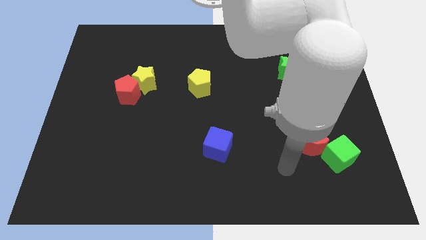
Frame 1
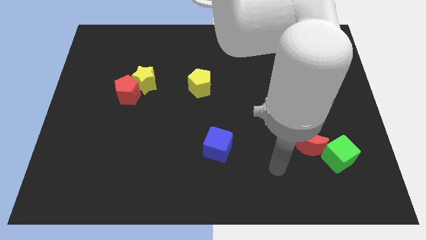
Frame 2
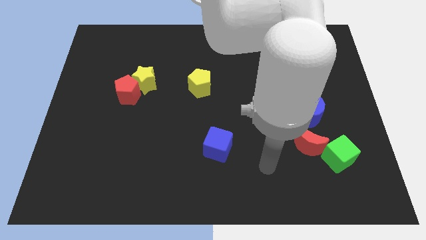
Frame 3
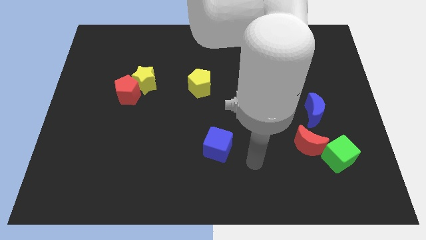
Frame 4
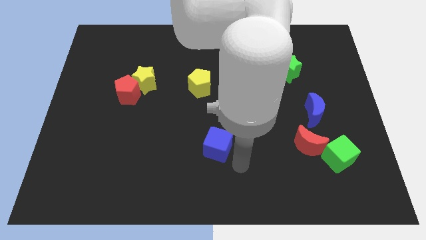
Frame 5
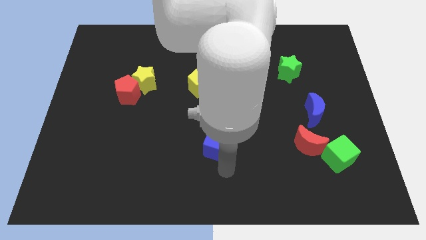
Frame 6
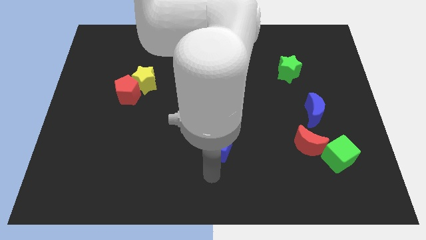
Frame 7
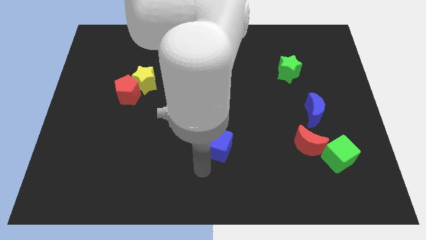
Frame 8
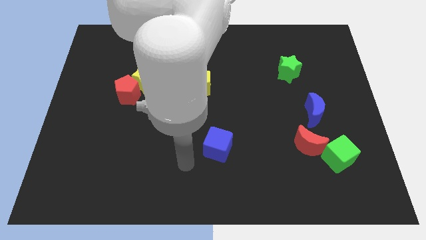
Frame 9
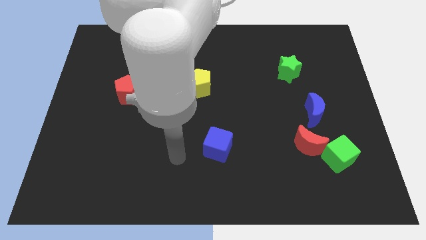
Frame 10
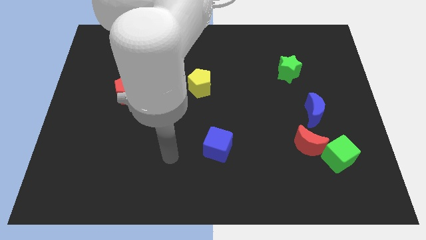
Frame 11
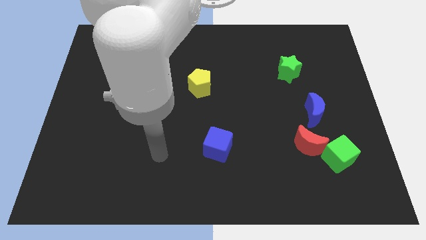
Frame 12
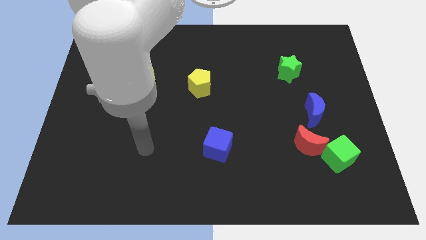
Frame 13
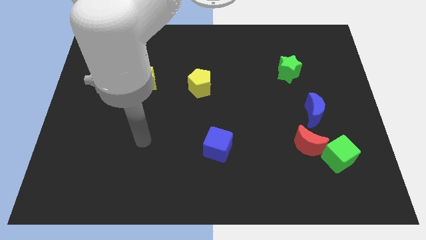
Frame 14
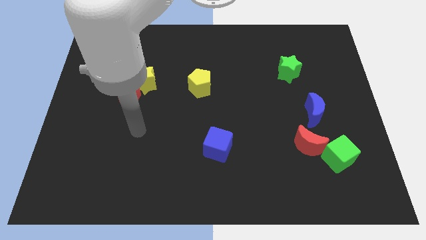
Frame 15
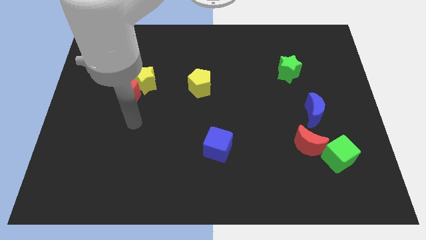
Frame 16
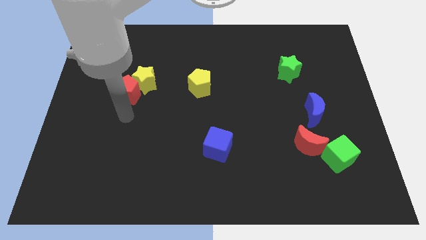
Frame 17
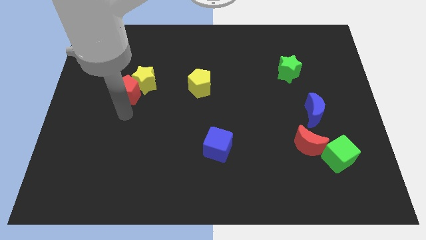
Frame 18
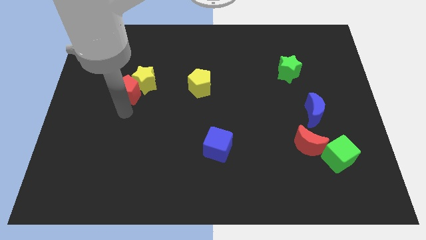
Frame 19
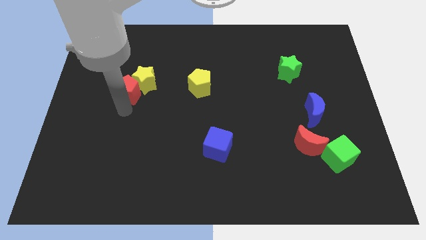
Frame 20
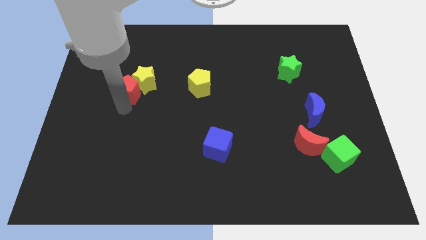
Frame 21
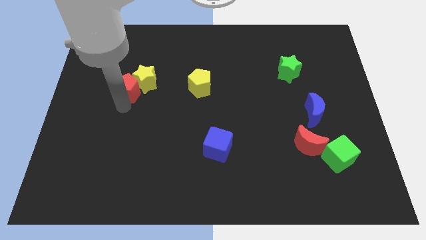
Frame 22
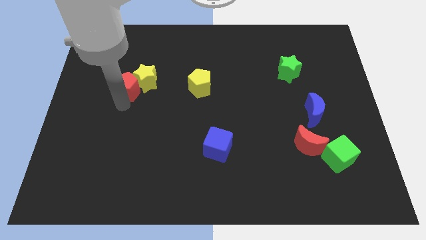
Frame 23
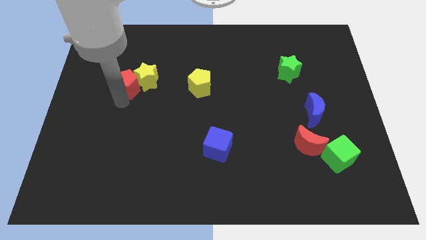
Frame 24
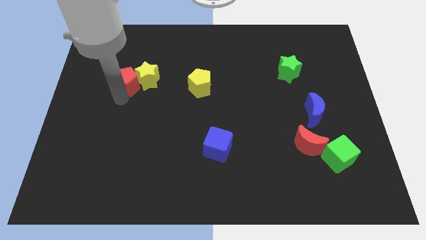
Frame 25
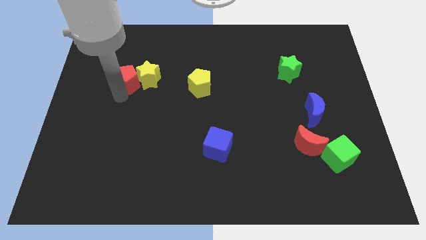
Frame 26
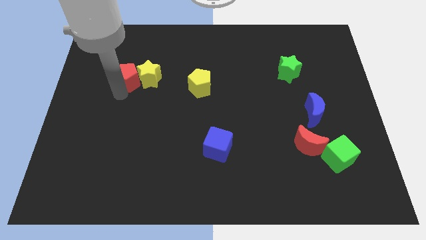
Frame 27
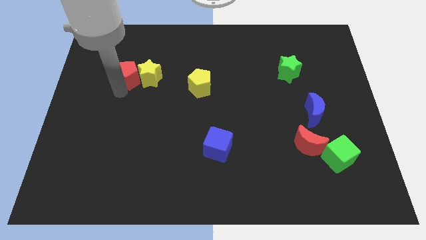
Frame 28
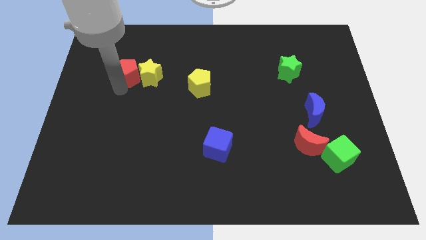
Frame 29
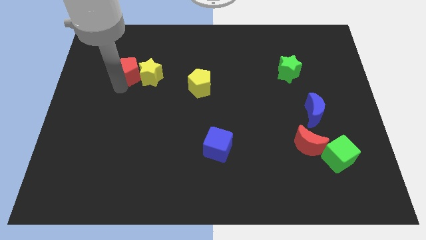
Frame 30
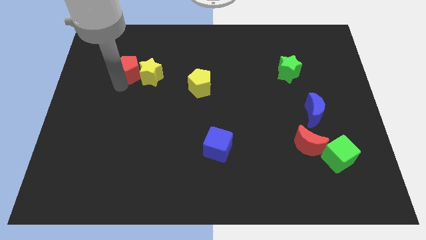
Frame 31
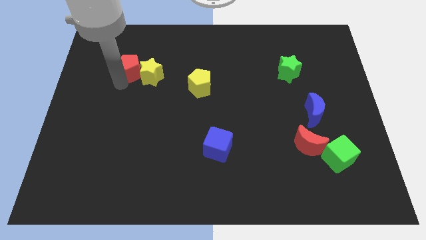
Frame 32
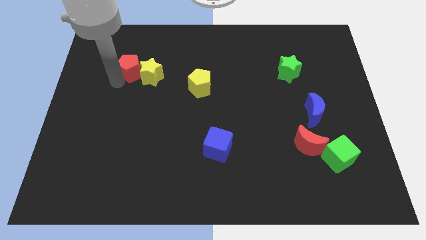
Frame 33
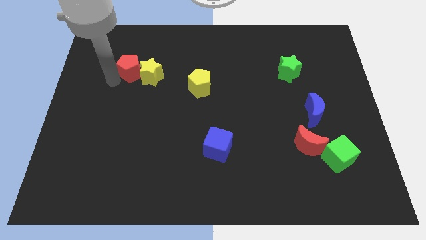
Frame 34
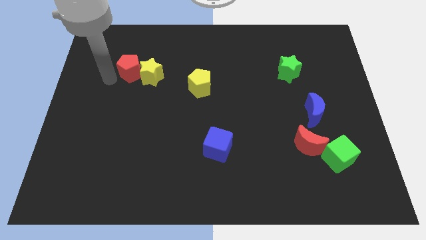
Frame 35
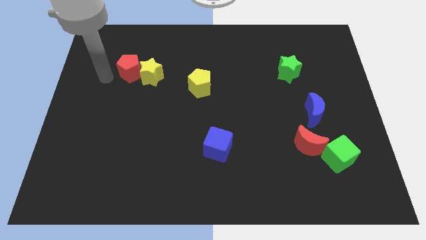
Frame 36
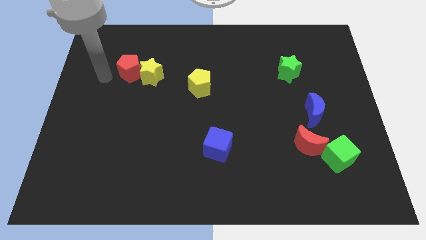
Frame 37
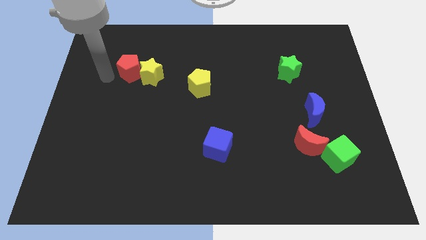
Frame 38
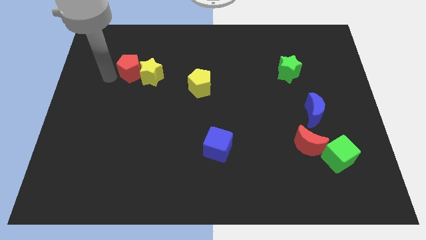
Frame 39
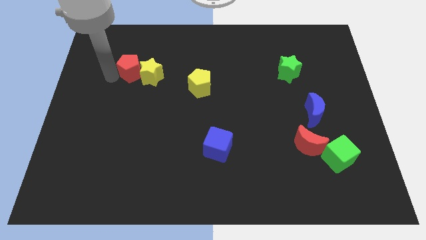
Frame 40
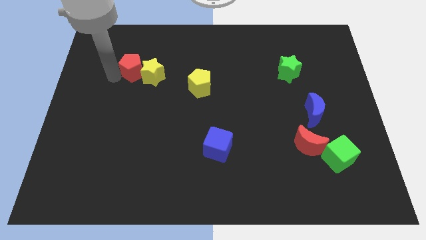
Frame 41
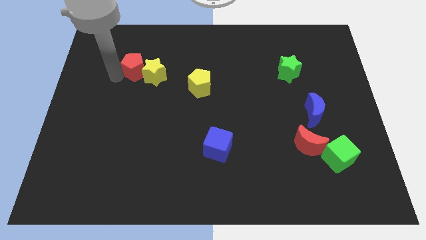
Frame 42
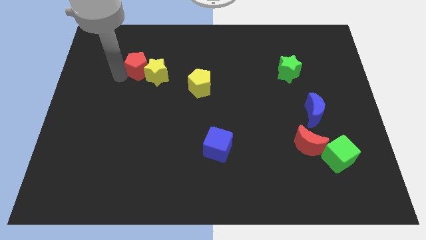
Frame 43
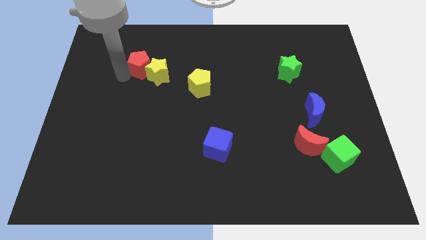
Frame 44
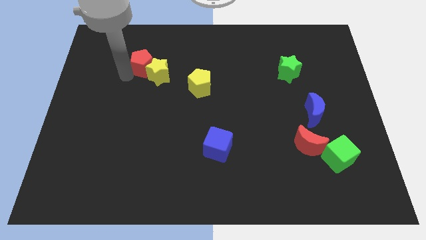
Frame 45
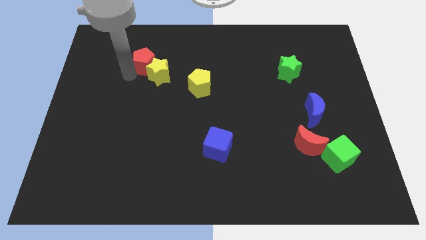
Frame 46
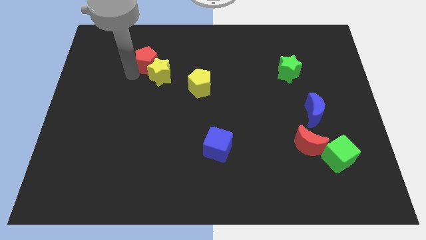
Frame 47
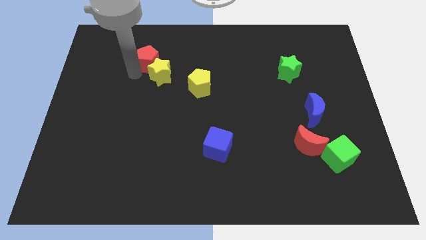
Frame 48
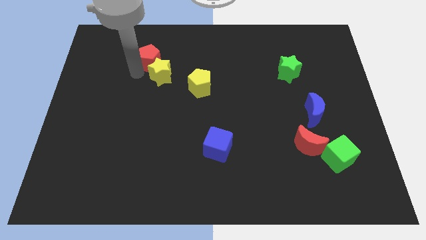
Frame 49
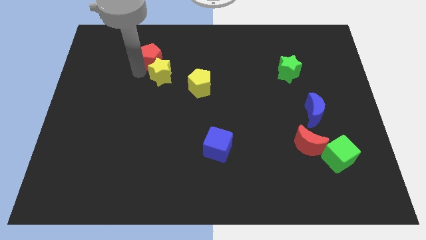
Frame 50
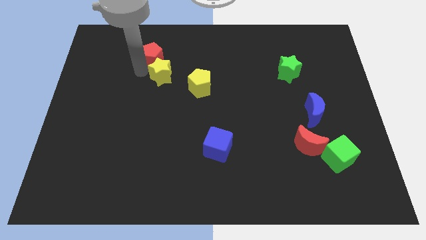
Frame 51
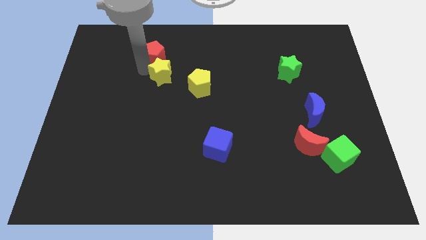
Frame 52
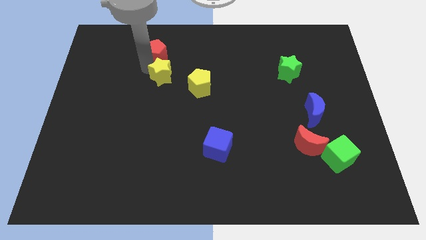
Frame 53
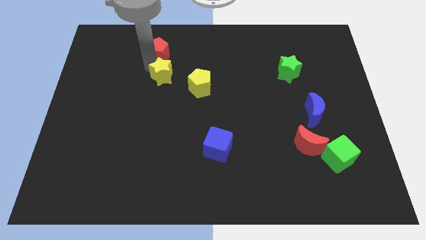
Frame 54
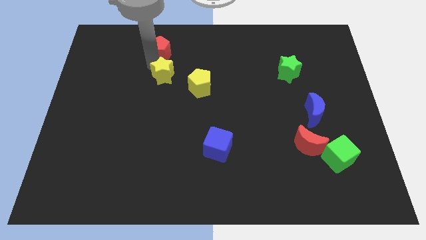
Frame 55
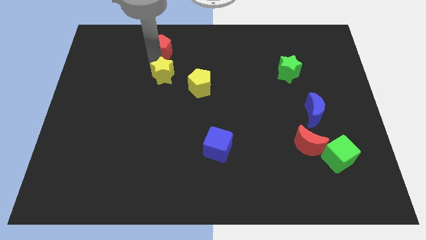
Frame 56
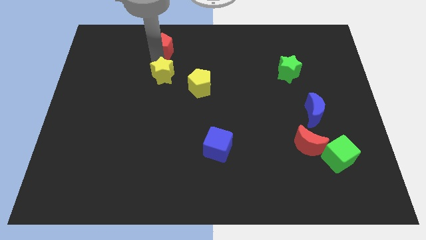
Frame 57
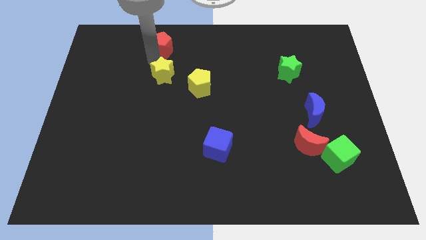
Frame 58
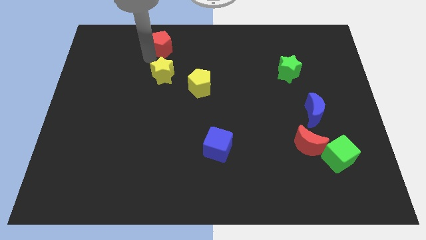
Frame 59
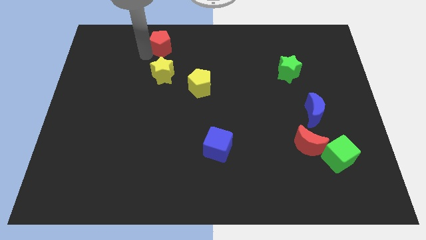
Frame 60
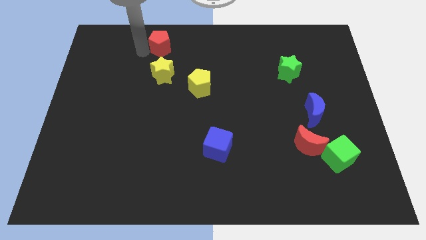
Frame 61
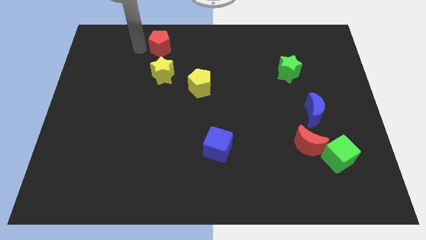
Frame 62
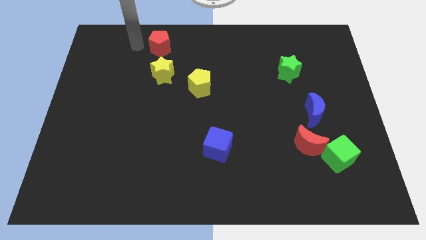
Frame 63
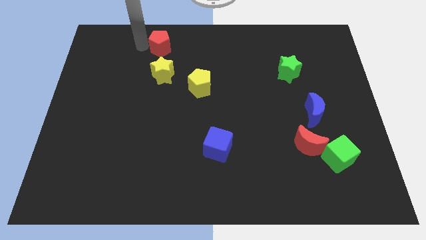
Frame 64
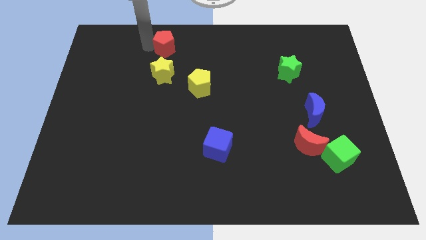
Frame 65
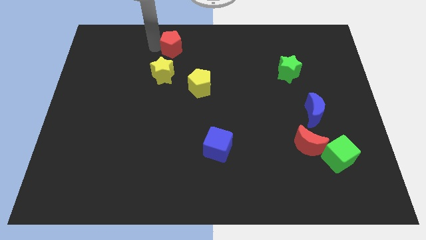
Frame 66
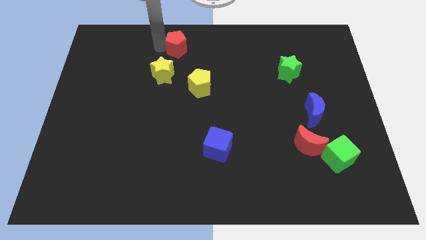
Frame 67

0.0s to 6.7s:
slide the red pentagon to the towards your base

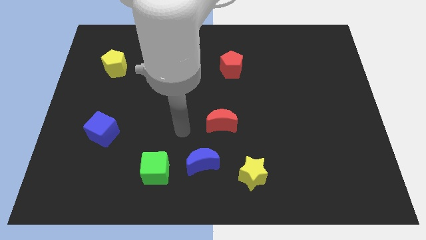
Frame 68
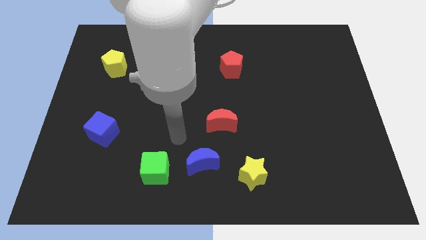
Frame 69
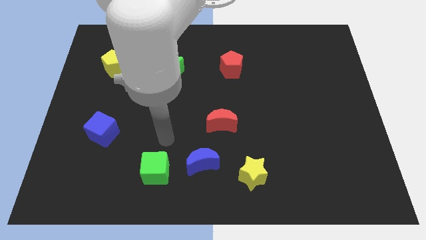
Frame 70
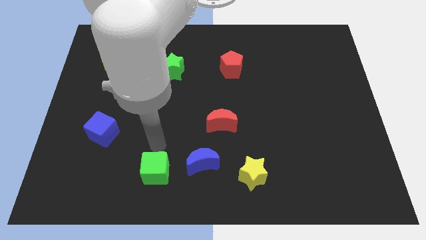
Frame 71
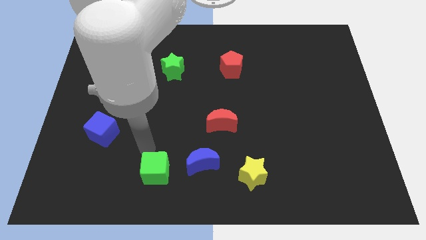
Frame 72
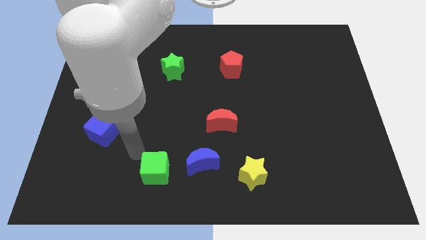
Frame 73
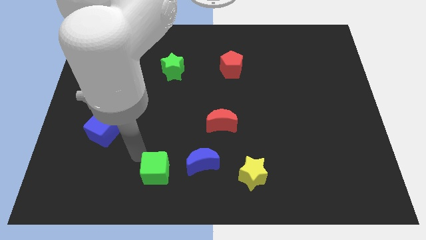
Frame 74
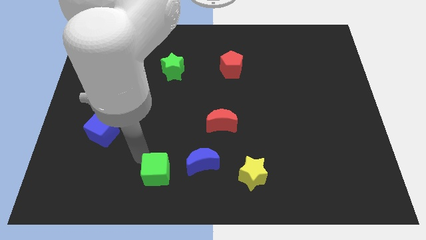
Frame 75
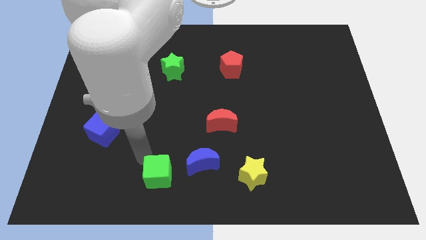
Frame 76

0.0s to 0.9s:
slide the green cube to the bottom
